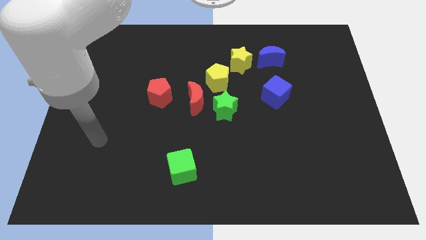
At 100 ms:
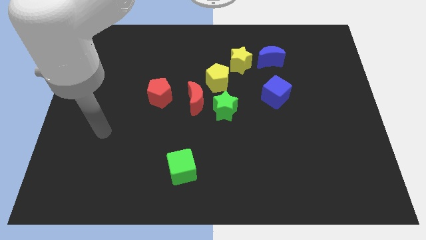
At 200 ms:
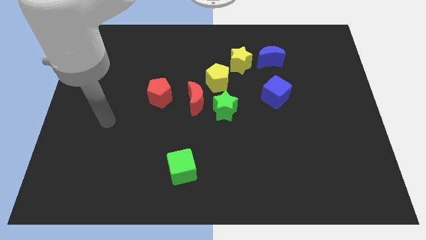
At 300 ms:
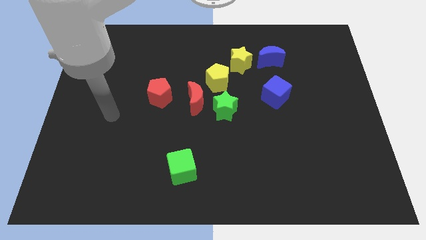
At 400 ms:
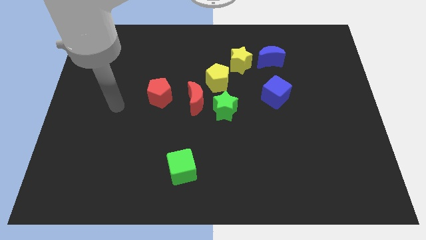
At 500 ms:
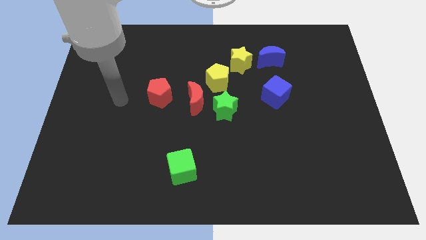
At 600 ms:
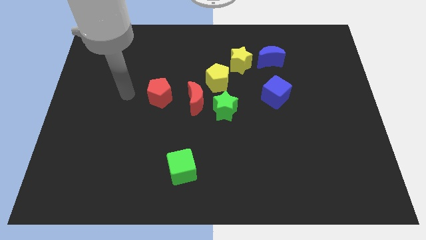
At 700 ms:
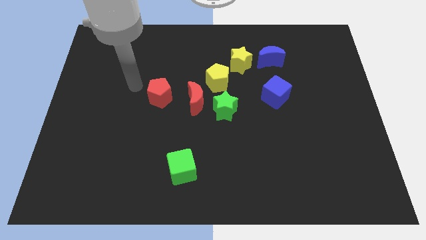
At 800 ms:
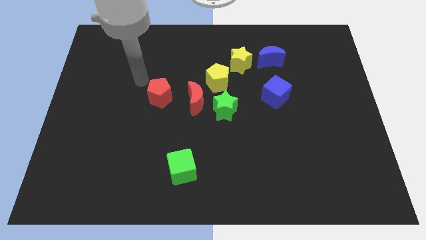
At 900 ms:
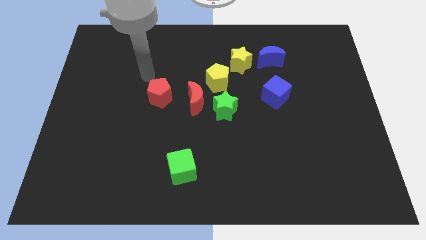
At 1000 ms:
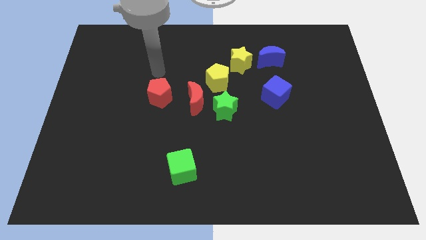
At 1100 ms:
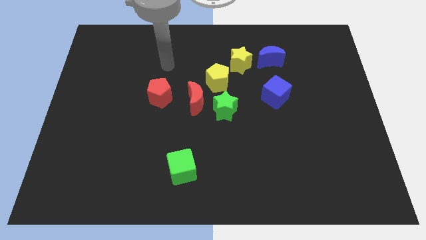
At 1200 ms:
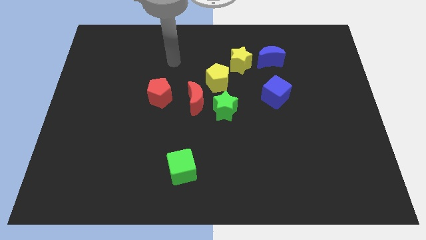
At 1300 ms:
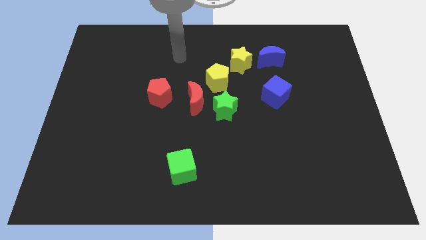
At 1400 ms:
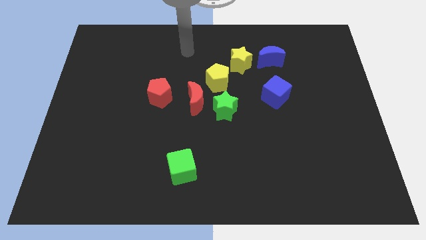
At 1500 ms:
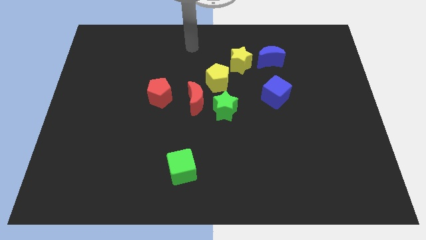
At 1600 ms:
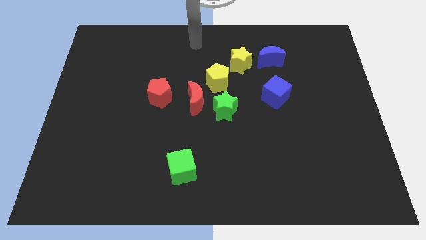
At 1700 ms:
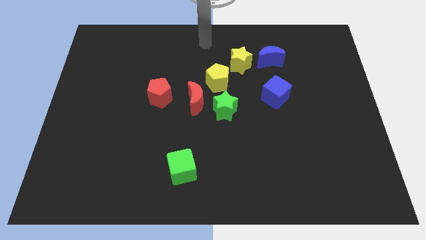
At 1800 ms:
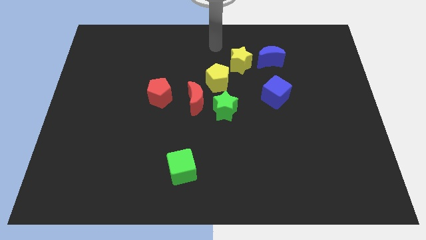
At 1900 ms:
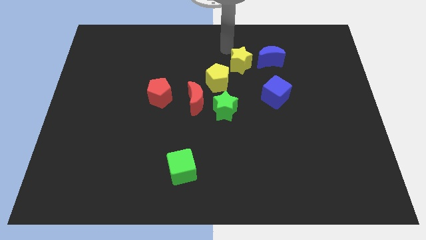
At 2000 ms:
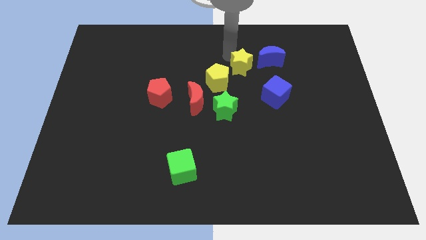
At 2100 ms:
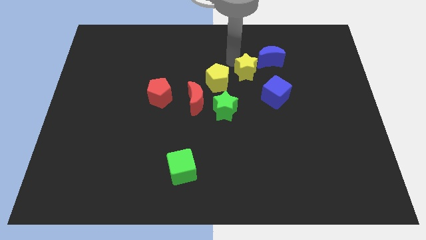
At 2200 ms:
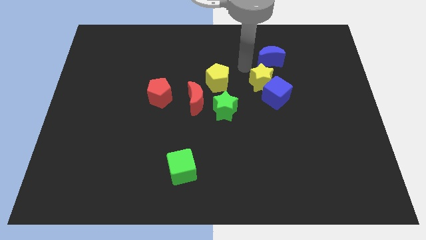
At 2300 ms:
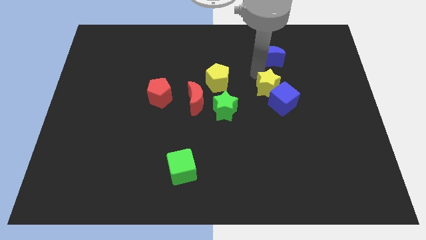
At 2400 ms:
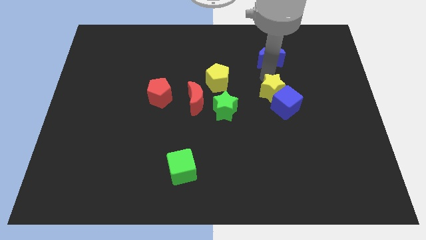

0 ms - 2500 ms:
separate the blue moon from the yellow star

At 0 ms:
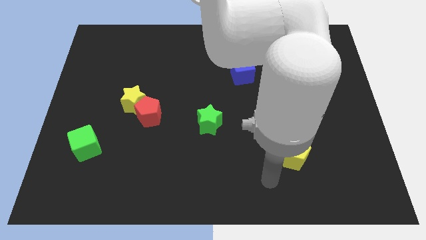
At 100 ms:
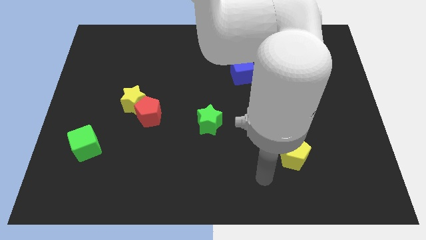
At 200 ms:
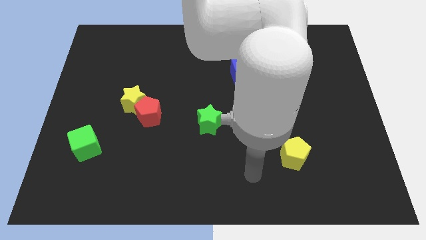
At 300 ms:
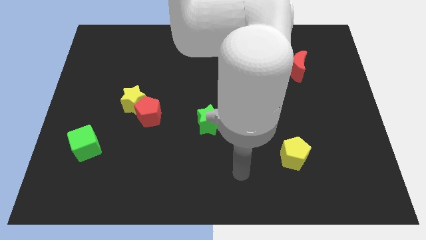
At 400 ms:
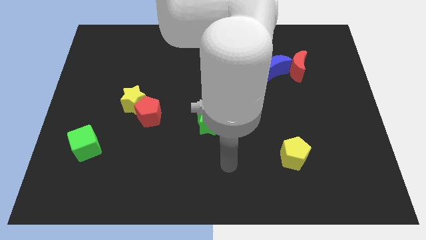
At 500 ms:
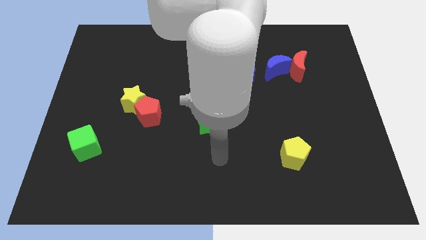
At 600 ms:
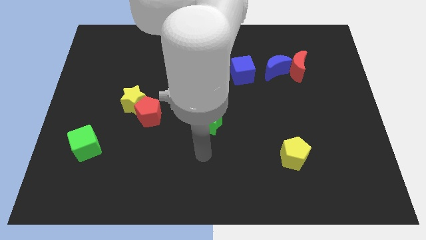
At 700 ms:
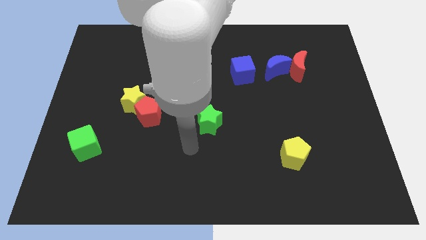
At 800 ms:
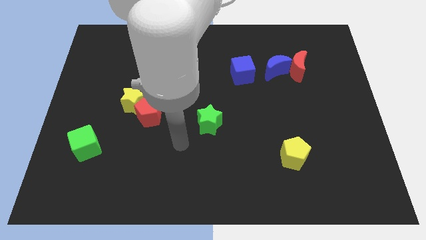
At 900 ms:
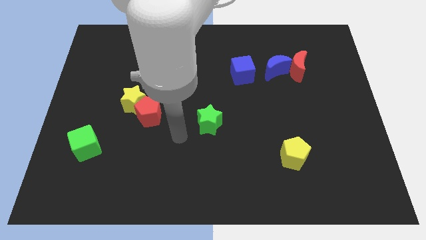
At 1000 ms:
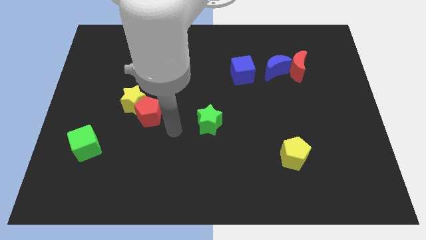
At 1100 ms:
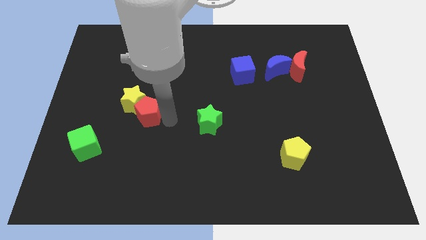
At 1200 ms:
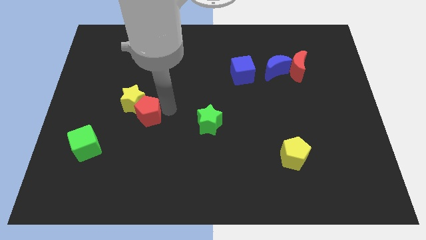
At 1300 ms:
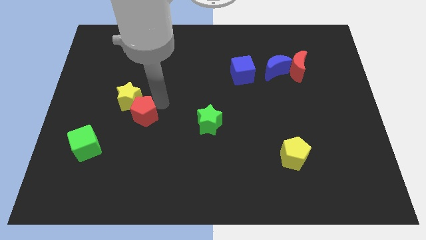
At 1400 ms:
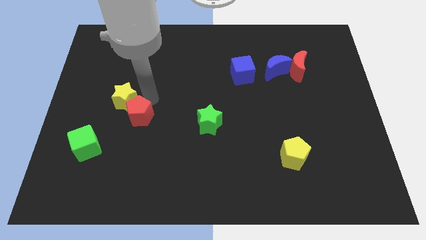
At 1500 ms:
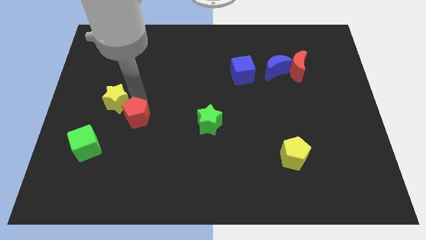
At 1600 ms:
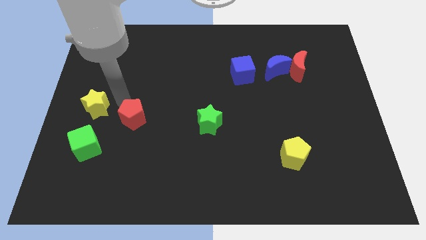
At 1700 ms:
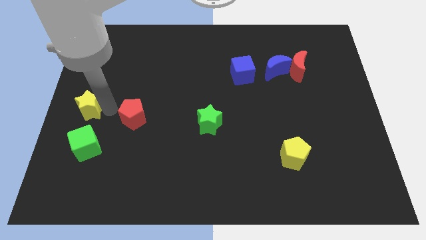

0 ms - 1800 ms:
move the red pentagon away from the yellow star

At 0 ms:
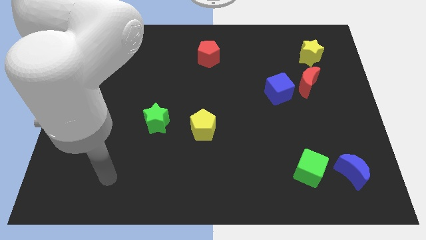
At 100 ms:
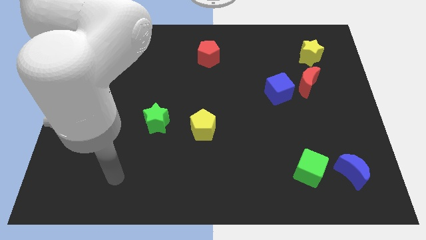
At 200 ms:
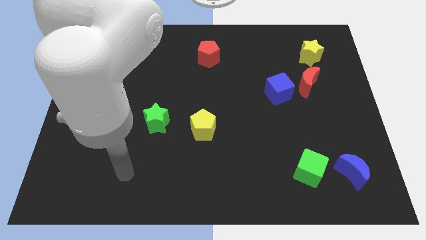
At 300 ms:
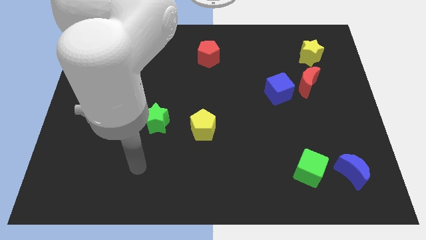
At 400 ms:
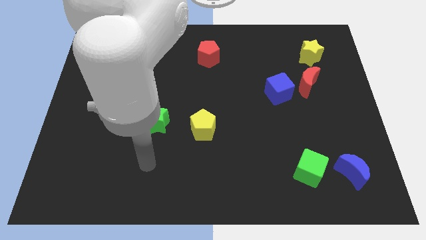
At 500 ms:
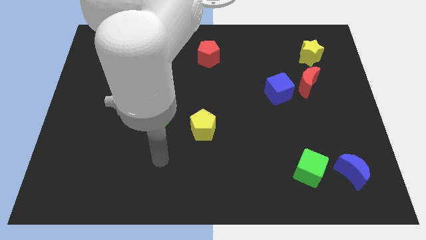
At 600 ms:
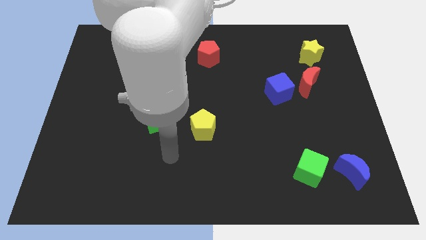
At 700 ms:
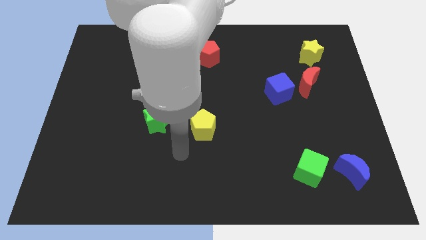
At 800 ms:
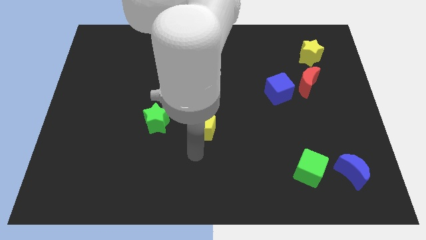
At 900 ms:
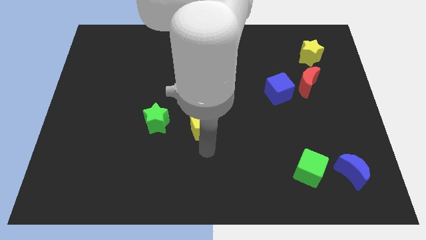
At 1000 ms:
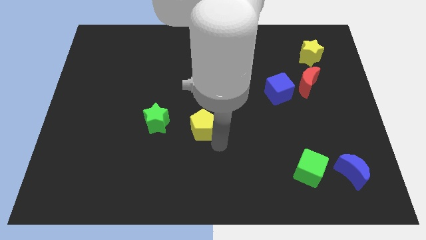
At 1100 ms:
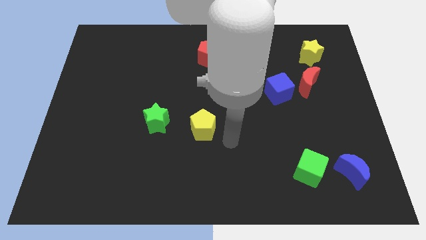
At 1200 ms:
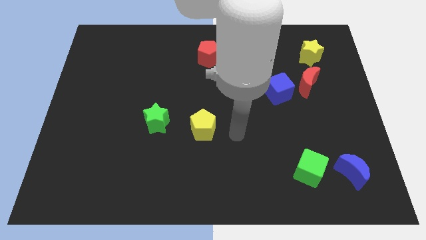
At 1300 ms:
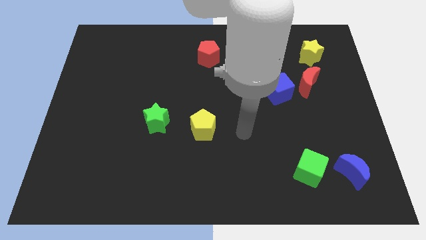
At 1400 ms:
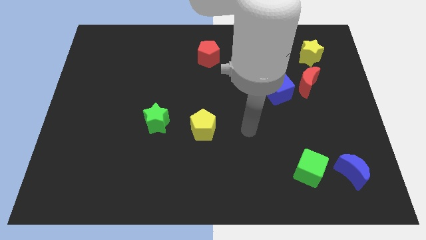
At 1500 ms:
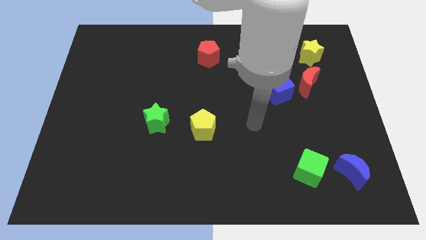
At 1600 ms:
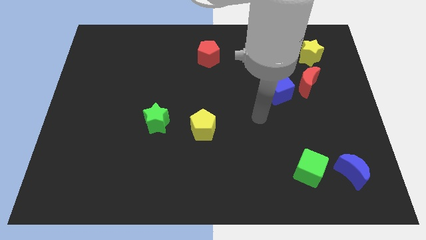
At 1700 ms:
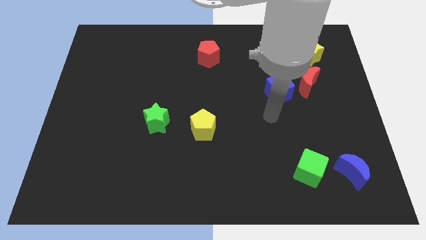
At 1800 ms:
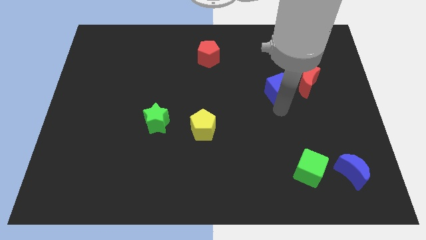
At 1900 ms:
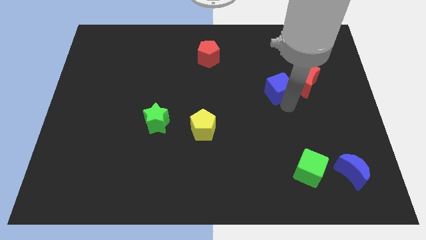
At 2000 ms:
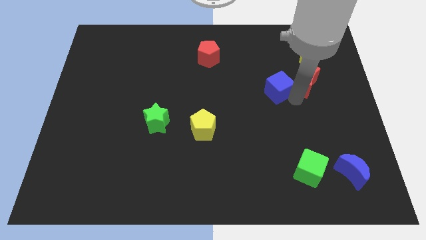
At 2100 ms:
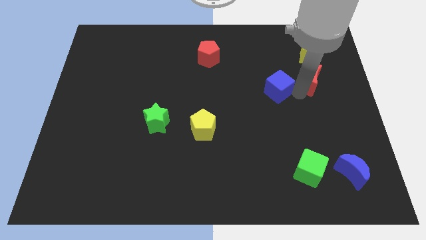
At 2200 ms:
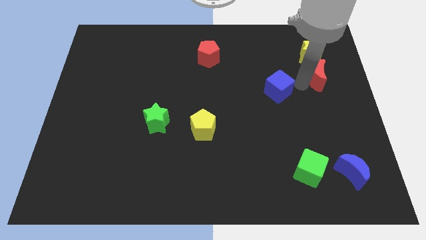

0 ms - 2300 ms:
separate the blue cube from the red moon

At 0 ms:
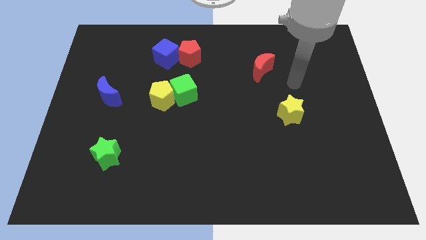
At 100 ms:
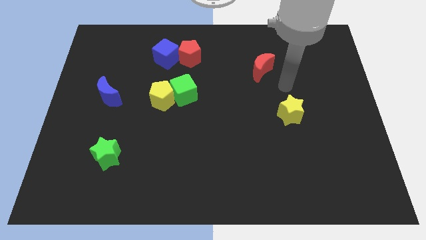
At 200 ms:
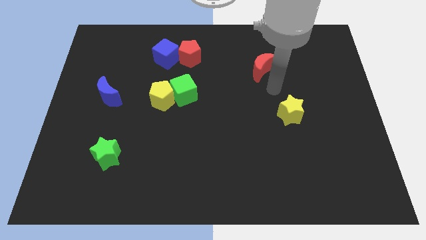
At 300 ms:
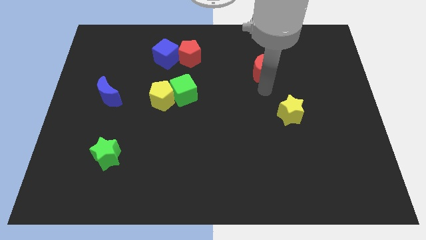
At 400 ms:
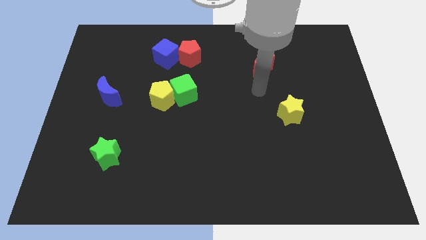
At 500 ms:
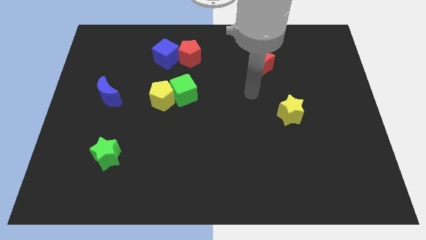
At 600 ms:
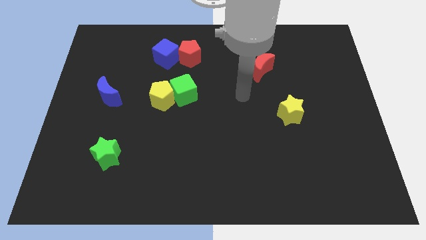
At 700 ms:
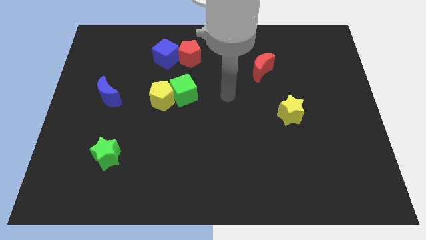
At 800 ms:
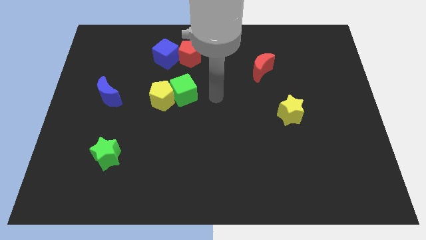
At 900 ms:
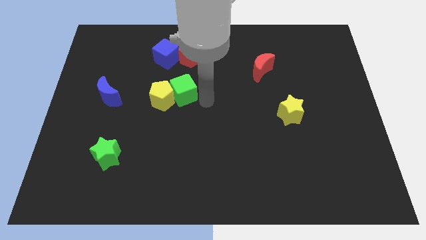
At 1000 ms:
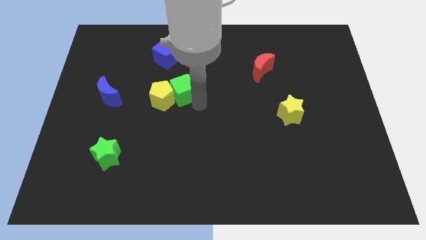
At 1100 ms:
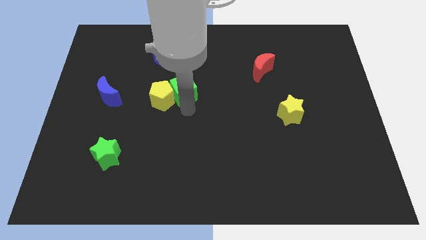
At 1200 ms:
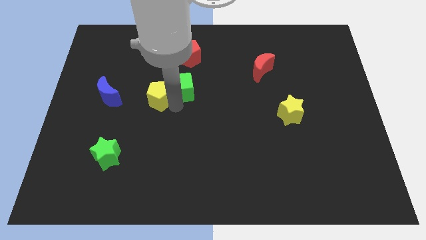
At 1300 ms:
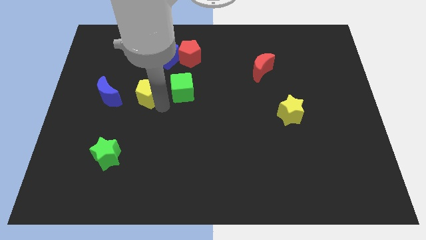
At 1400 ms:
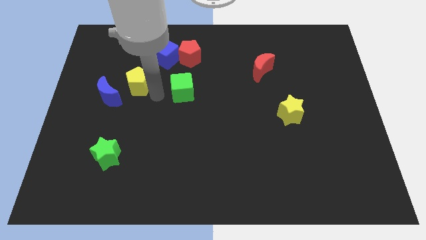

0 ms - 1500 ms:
separate the green cube from the yellow pentagon

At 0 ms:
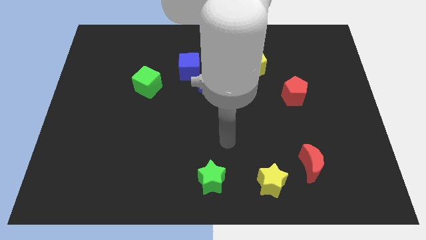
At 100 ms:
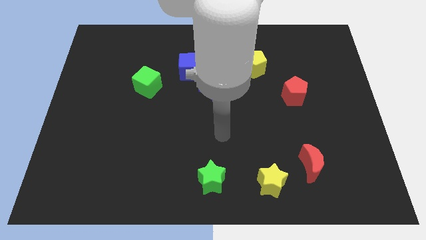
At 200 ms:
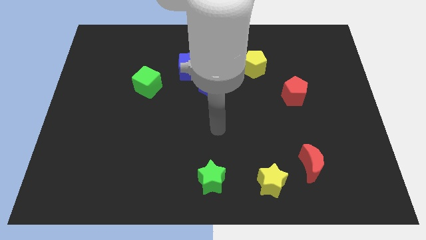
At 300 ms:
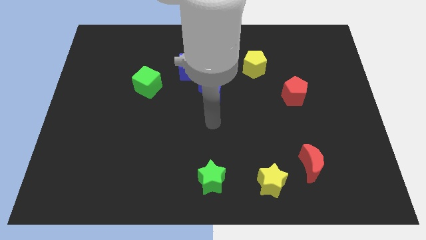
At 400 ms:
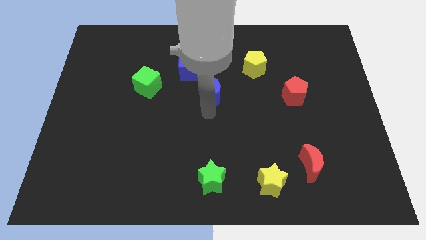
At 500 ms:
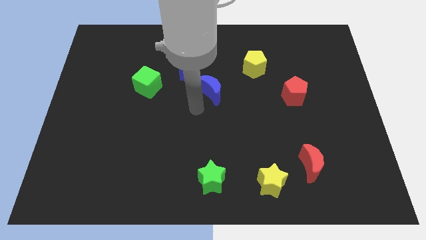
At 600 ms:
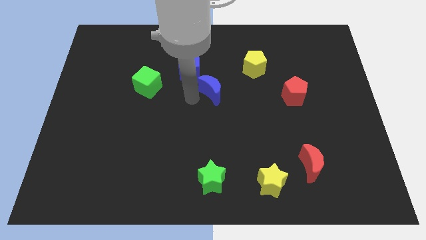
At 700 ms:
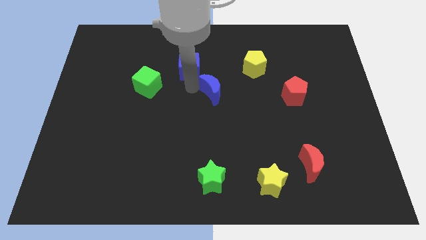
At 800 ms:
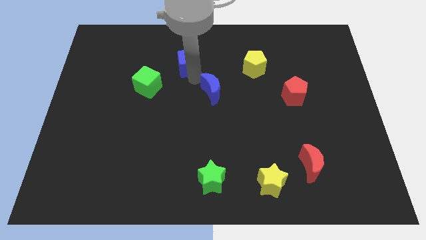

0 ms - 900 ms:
move the blue moon away from the blue cube

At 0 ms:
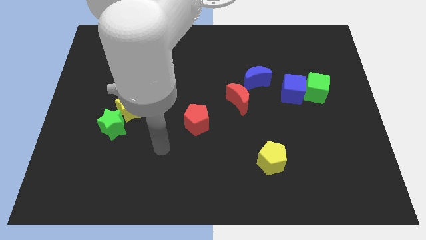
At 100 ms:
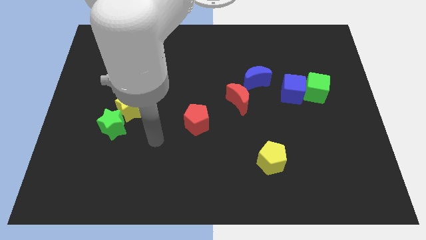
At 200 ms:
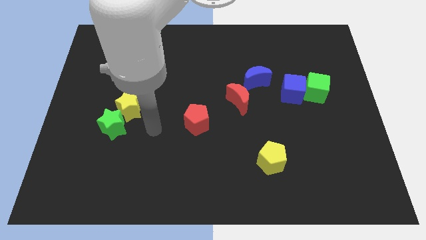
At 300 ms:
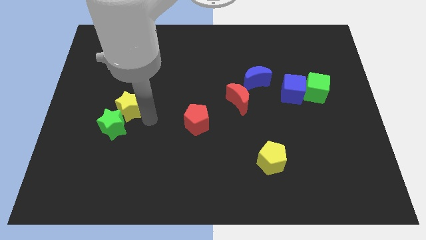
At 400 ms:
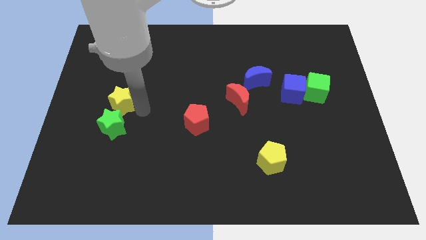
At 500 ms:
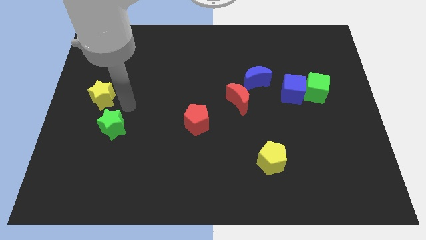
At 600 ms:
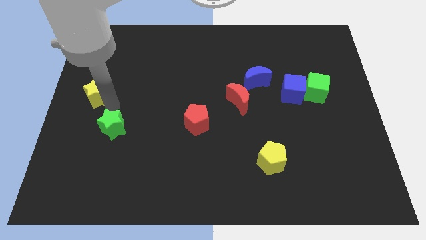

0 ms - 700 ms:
move the green star away from the yellow star
